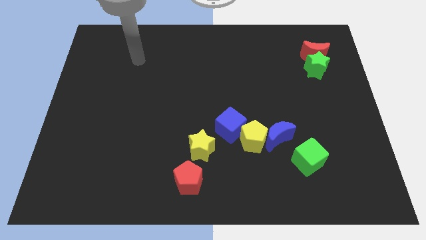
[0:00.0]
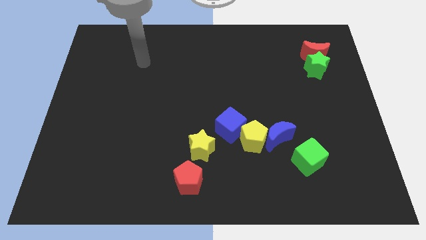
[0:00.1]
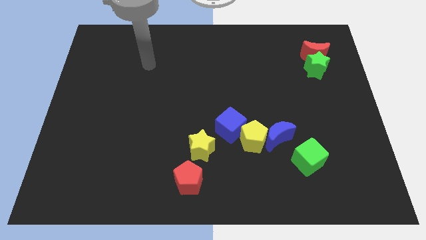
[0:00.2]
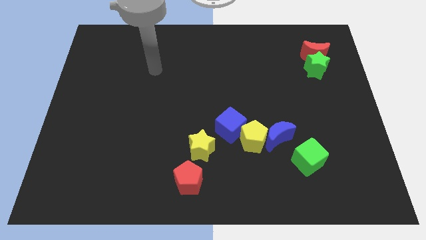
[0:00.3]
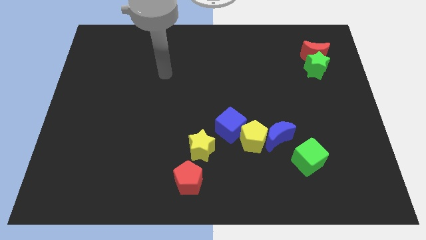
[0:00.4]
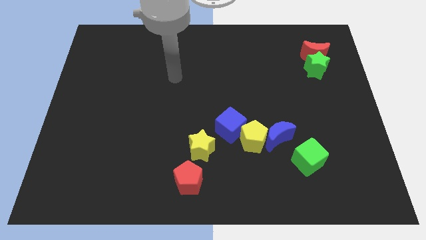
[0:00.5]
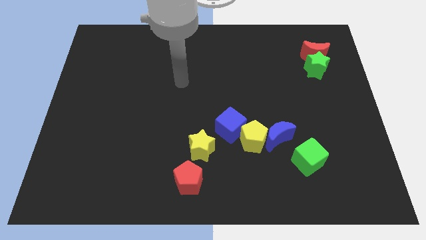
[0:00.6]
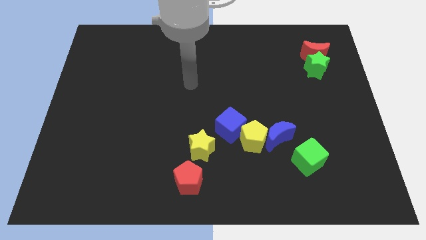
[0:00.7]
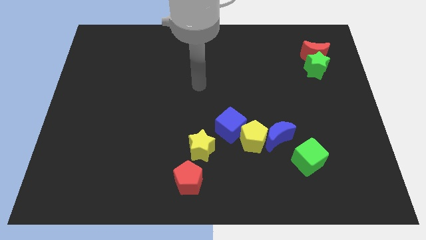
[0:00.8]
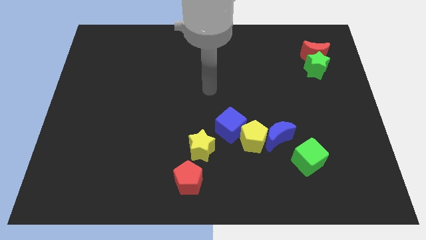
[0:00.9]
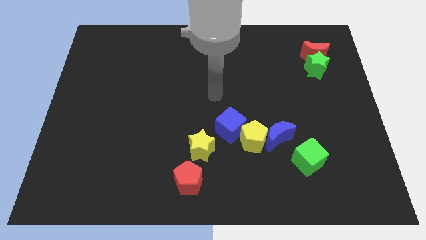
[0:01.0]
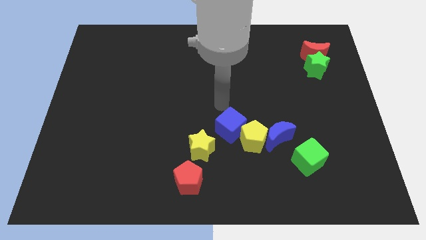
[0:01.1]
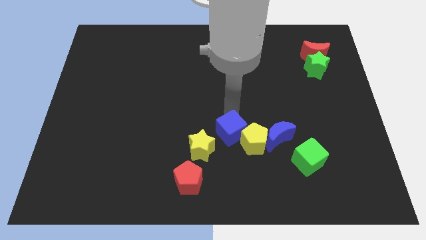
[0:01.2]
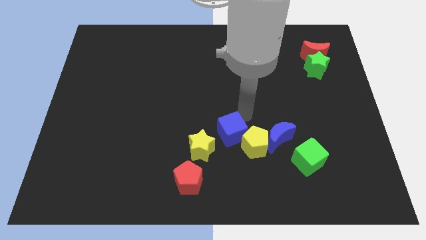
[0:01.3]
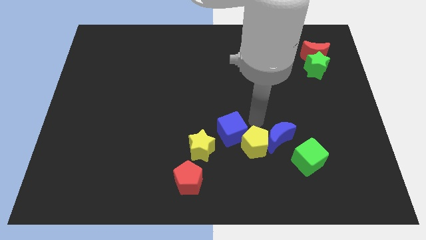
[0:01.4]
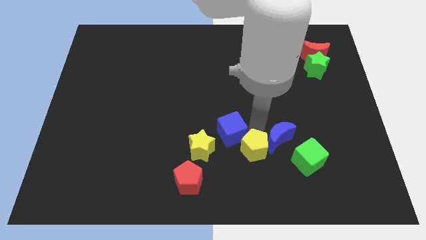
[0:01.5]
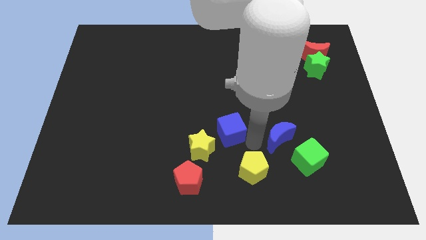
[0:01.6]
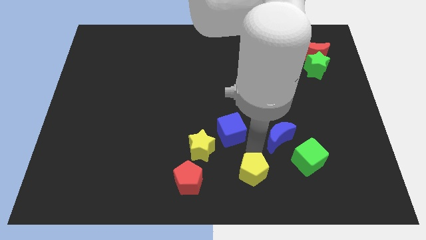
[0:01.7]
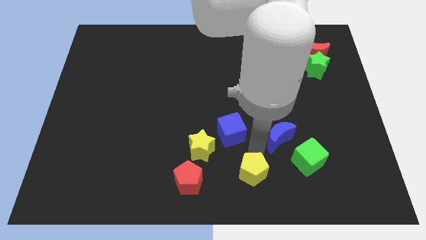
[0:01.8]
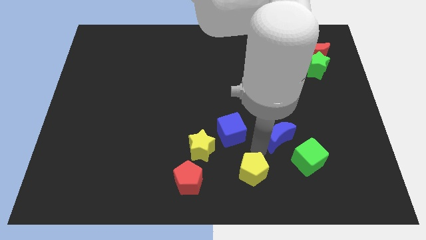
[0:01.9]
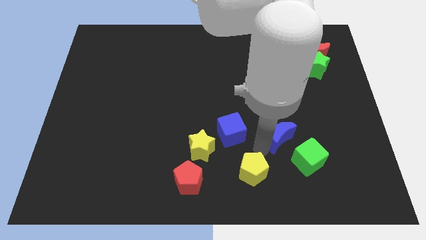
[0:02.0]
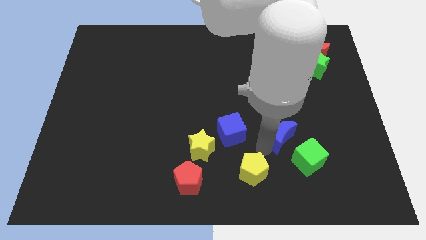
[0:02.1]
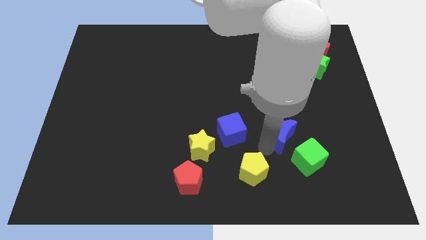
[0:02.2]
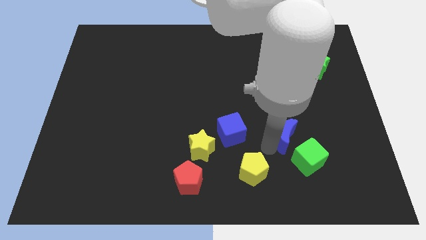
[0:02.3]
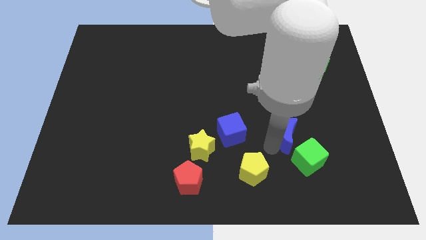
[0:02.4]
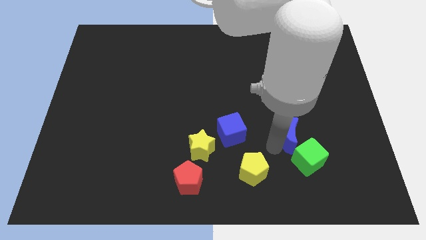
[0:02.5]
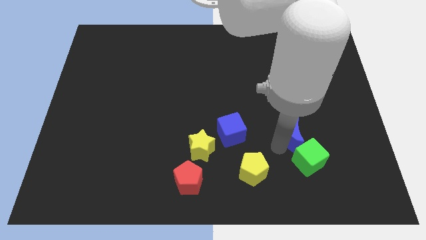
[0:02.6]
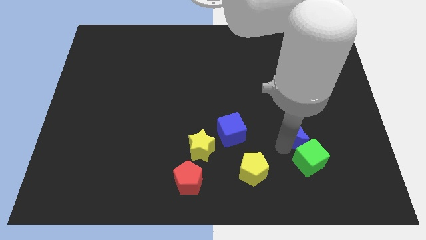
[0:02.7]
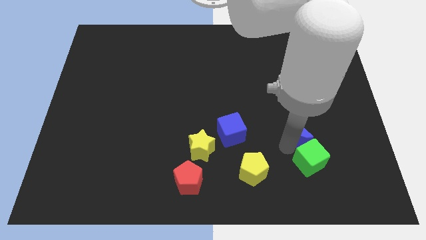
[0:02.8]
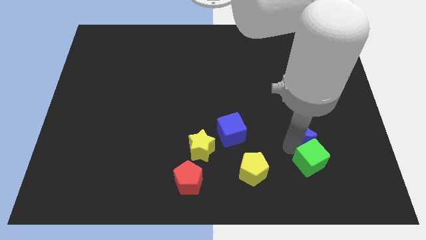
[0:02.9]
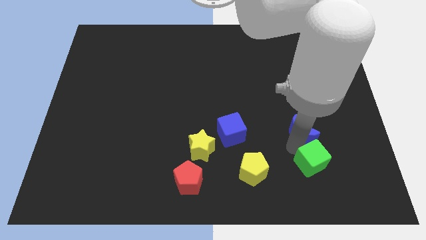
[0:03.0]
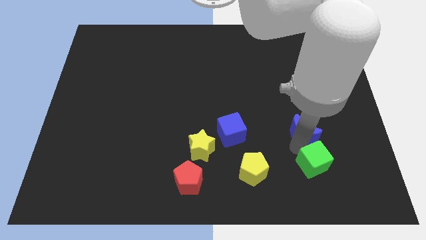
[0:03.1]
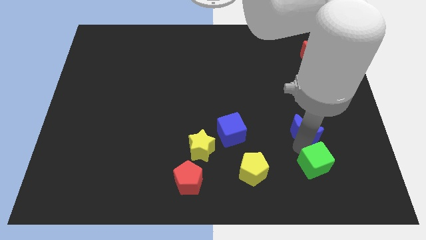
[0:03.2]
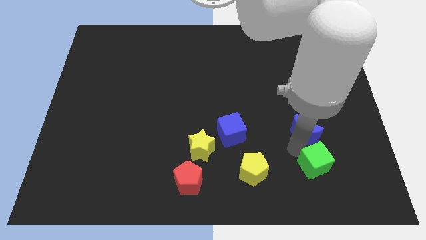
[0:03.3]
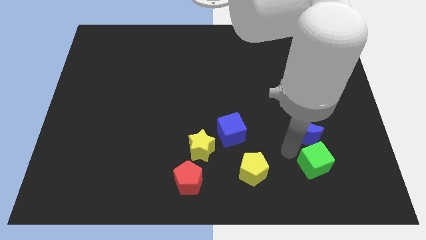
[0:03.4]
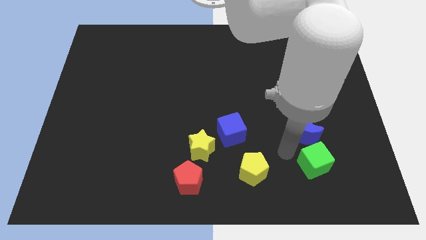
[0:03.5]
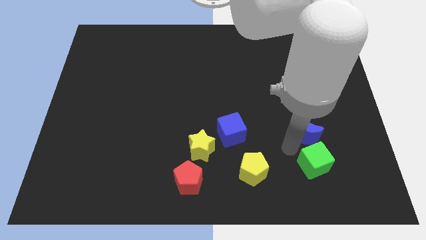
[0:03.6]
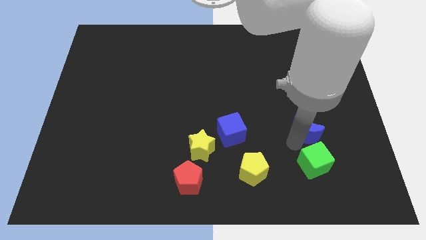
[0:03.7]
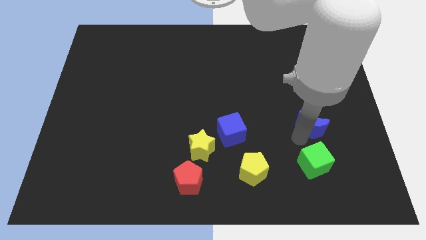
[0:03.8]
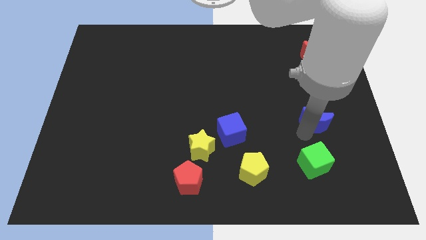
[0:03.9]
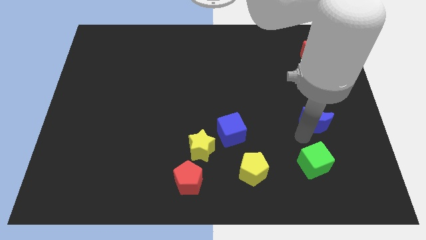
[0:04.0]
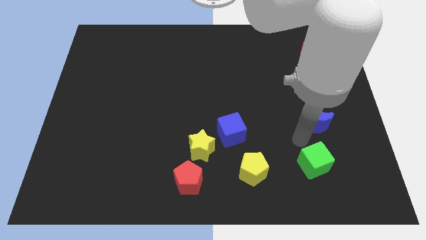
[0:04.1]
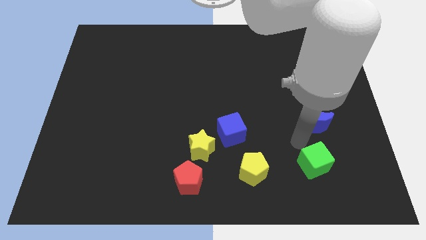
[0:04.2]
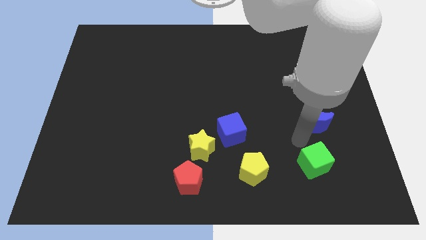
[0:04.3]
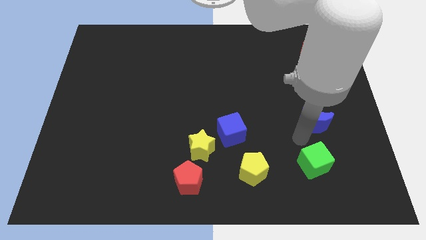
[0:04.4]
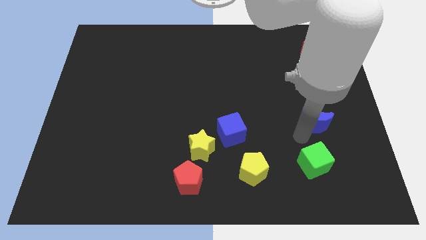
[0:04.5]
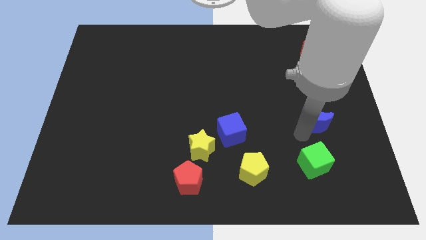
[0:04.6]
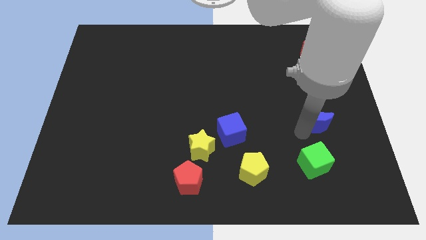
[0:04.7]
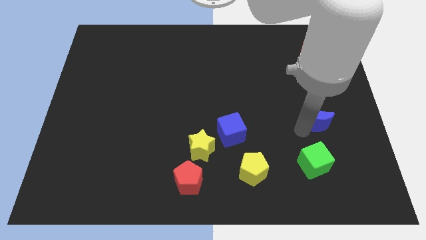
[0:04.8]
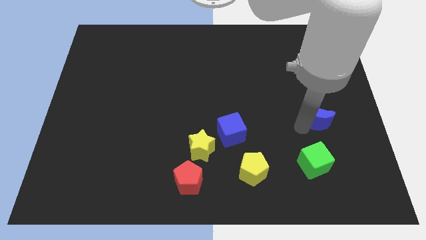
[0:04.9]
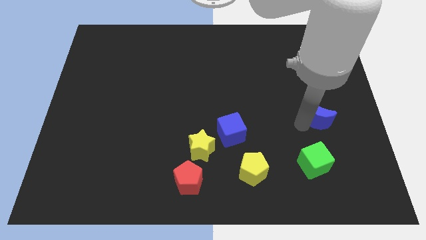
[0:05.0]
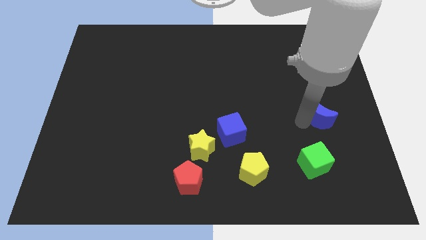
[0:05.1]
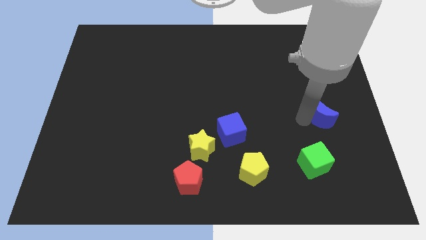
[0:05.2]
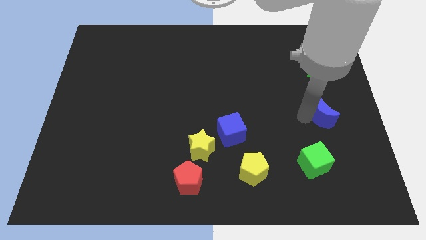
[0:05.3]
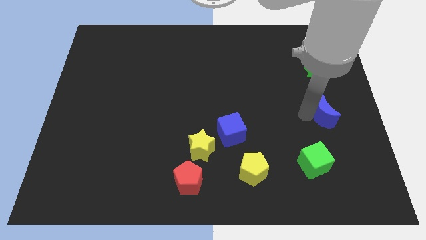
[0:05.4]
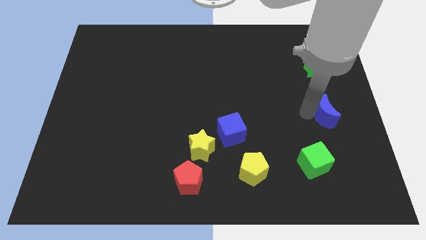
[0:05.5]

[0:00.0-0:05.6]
put the blue moon to the right side

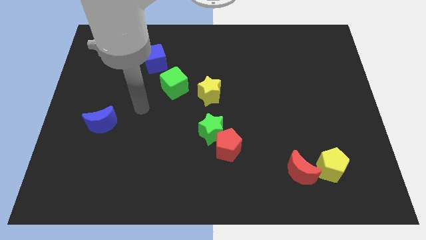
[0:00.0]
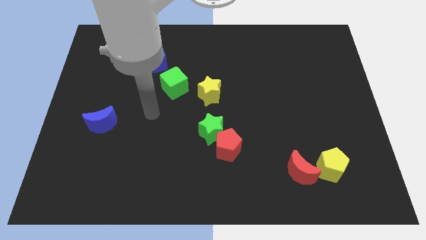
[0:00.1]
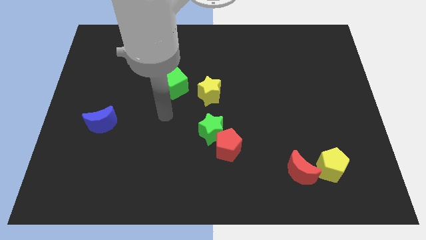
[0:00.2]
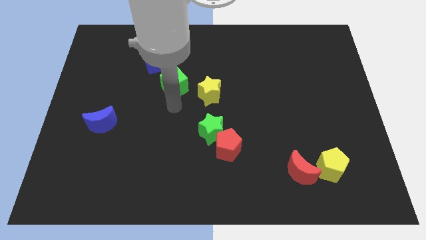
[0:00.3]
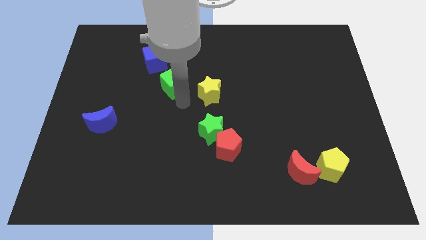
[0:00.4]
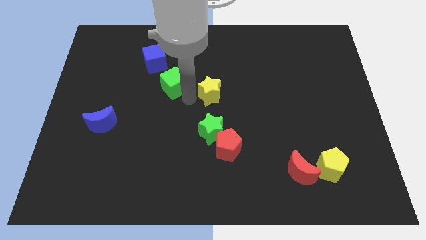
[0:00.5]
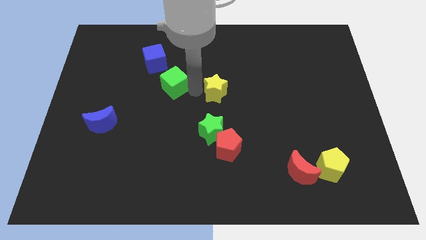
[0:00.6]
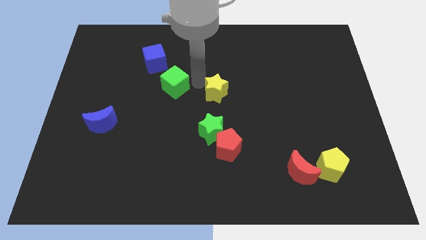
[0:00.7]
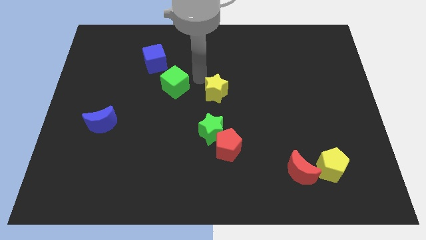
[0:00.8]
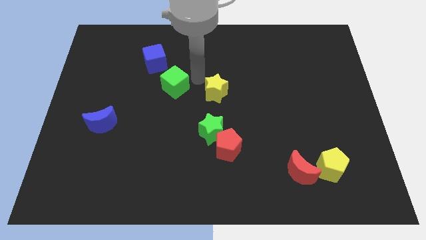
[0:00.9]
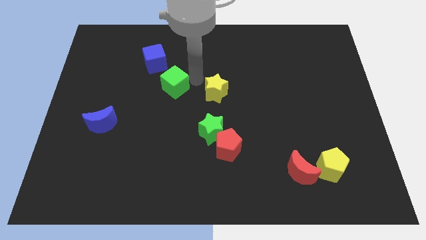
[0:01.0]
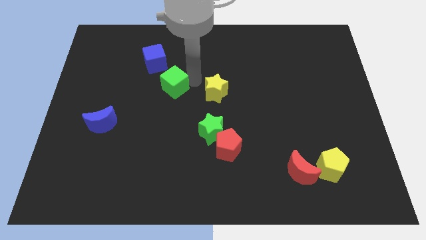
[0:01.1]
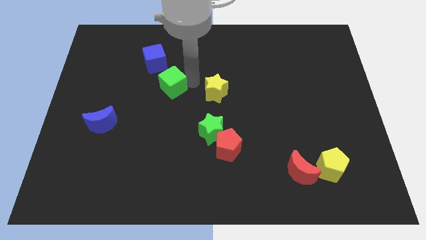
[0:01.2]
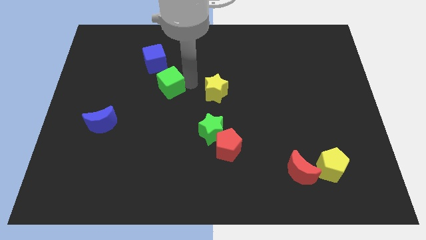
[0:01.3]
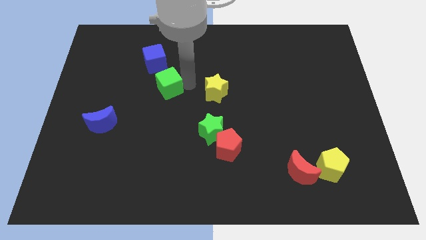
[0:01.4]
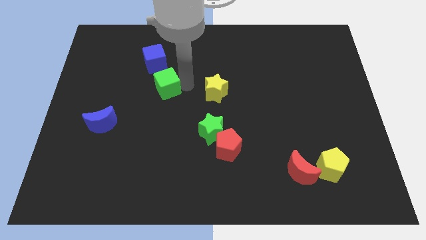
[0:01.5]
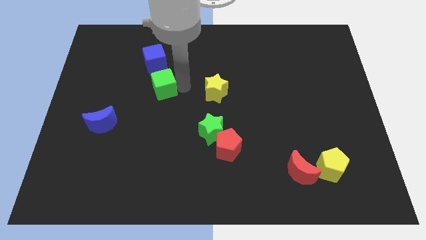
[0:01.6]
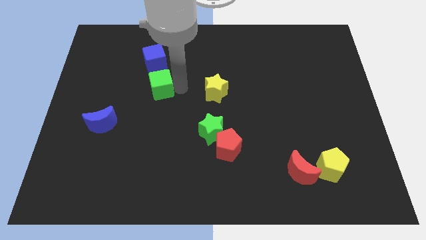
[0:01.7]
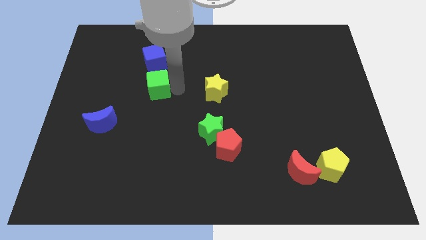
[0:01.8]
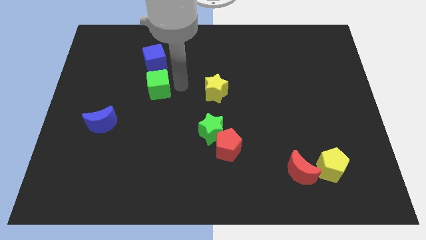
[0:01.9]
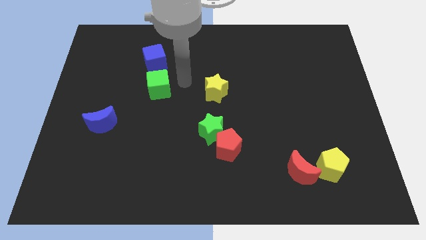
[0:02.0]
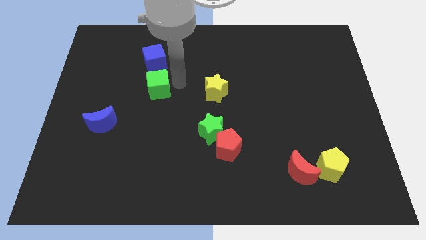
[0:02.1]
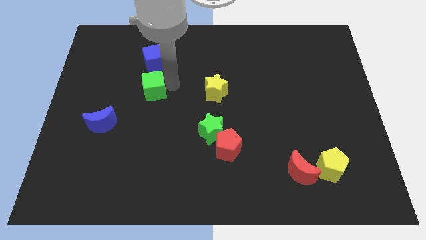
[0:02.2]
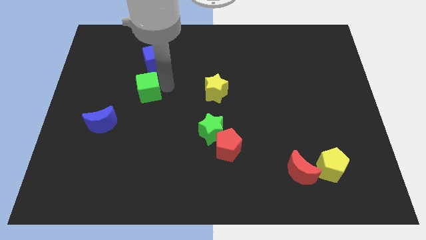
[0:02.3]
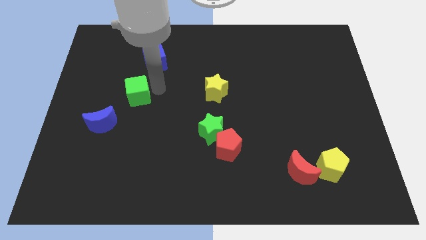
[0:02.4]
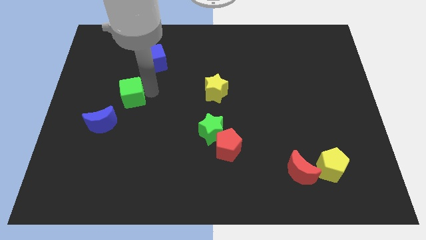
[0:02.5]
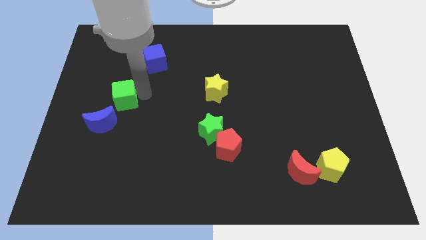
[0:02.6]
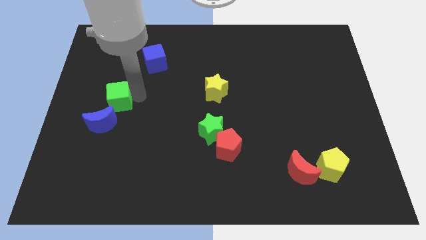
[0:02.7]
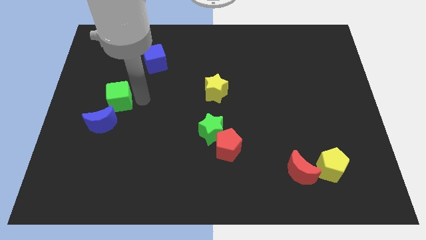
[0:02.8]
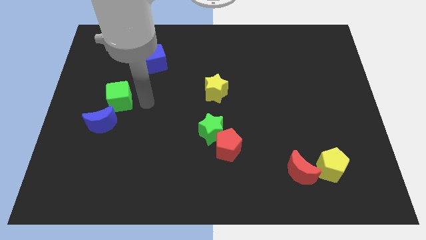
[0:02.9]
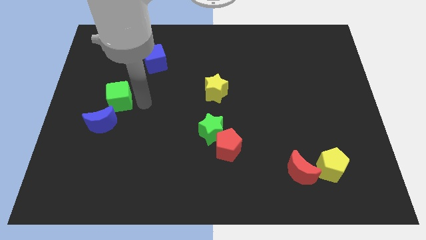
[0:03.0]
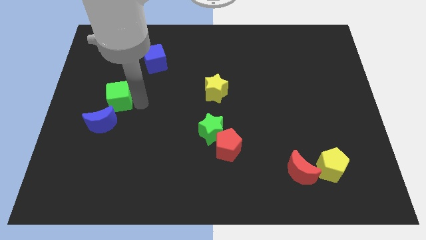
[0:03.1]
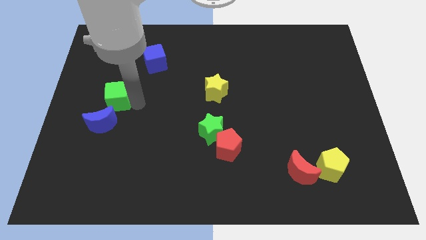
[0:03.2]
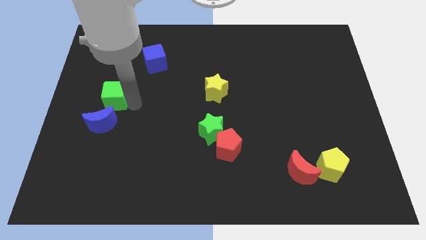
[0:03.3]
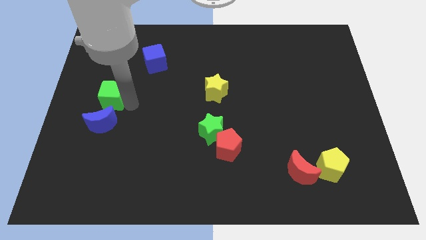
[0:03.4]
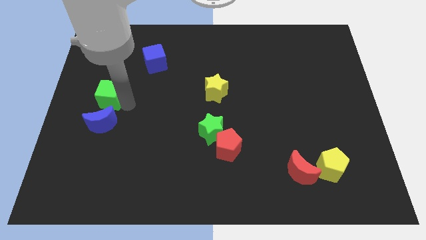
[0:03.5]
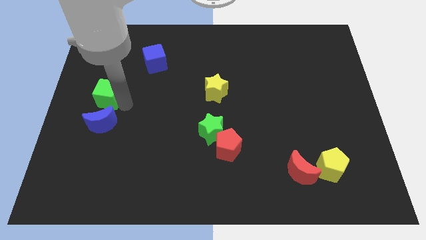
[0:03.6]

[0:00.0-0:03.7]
slide the green cube to the left side of the board
